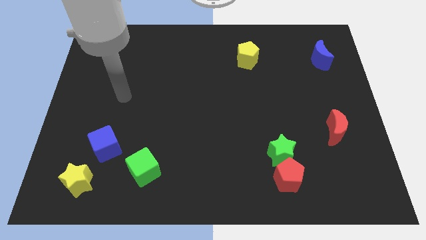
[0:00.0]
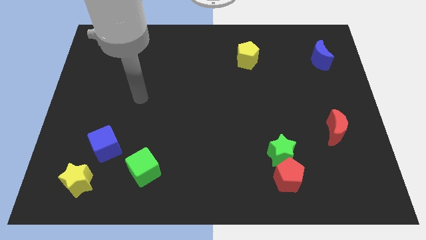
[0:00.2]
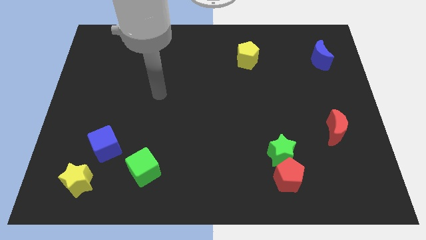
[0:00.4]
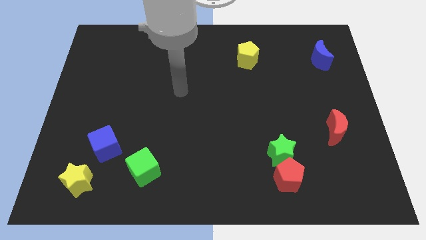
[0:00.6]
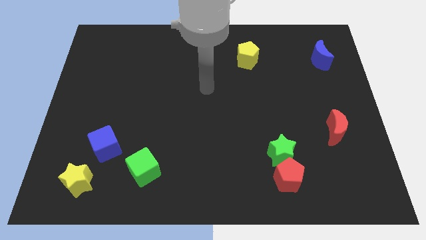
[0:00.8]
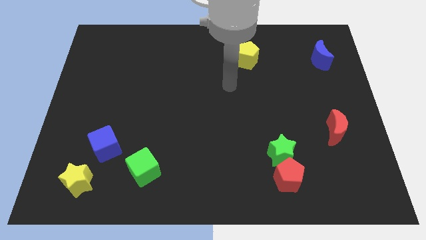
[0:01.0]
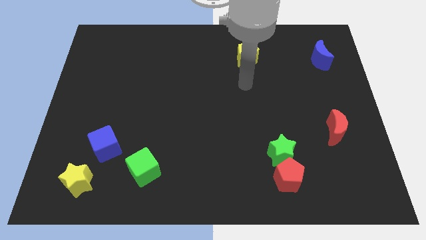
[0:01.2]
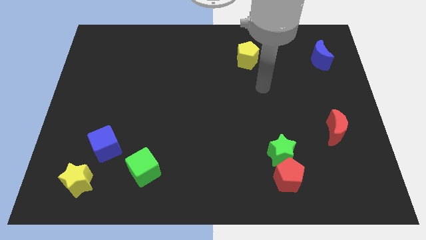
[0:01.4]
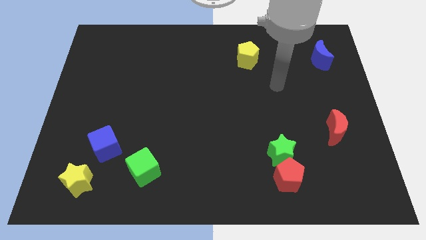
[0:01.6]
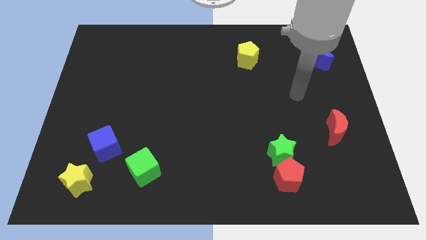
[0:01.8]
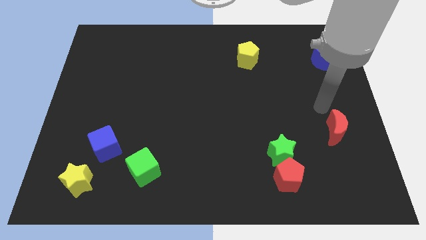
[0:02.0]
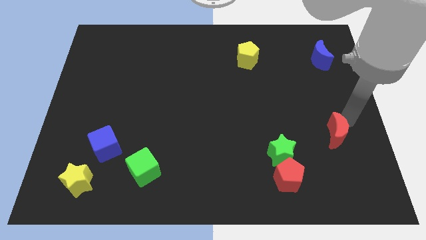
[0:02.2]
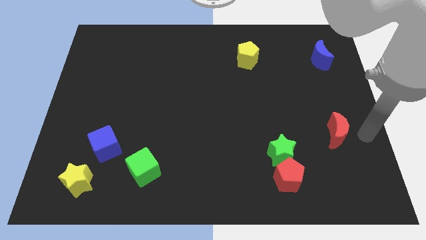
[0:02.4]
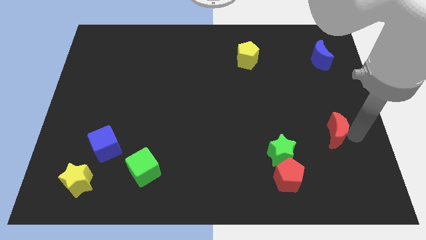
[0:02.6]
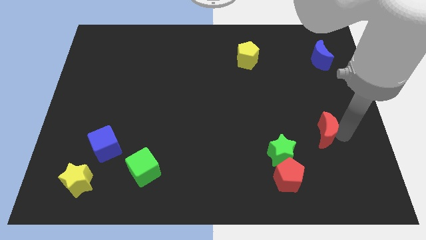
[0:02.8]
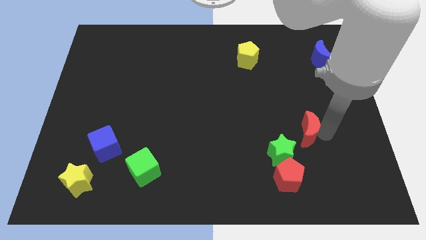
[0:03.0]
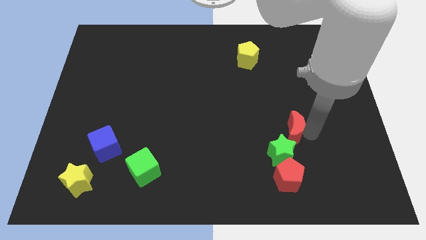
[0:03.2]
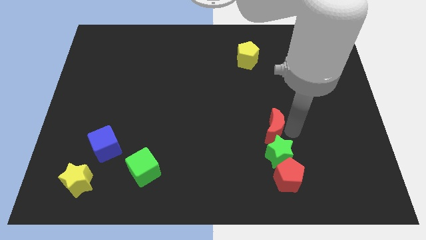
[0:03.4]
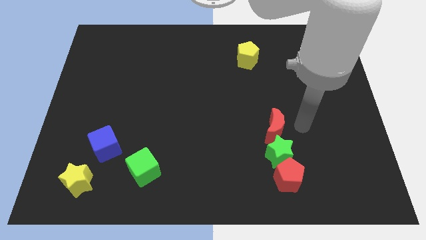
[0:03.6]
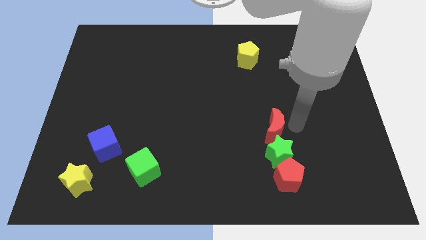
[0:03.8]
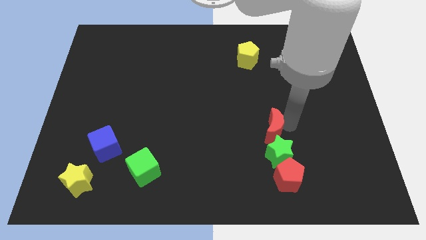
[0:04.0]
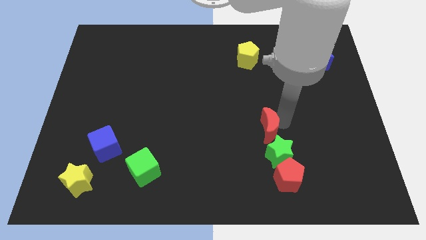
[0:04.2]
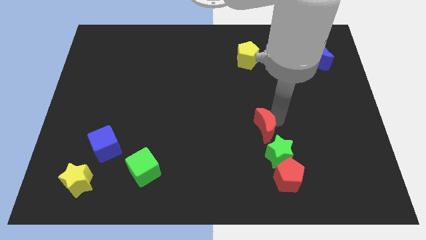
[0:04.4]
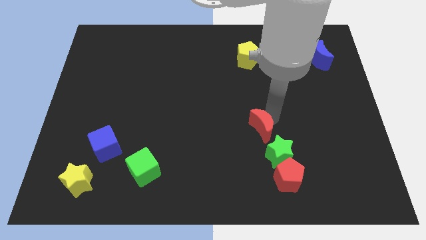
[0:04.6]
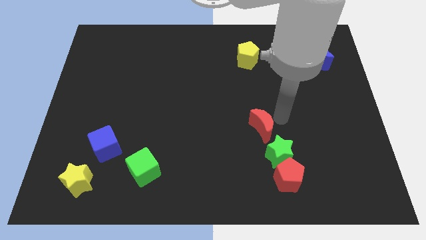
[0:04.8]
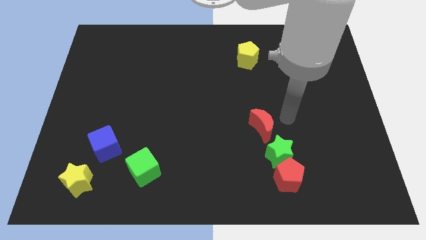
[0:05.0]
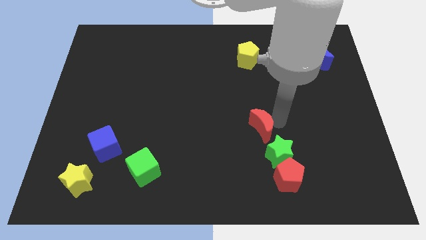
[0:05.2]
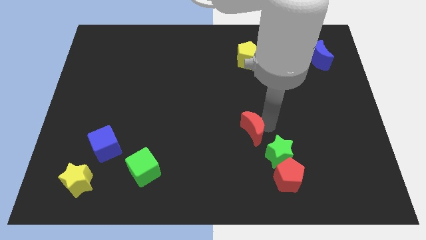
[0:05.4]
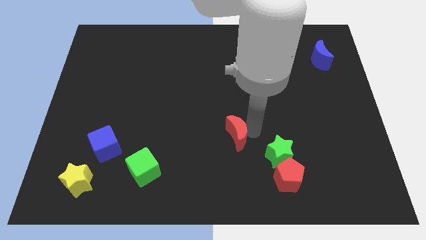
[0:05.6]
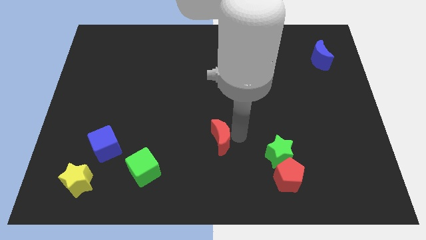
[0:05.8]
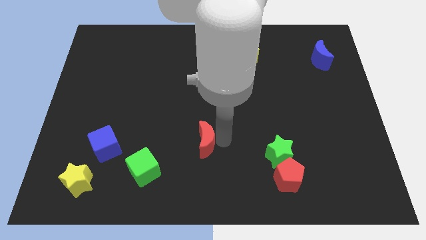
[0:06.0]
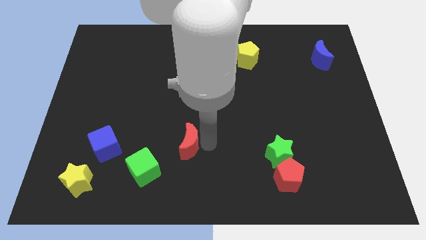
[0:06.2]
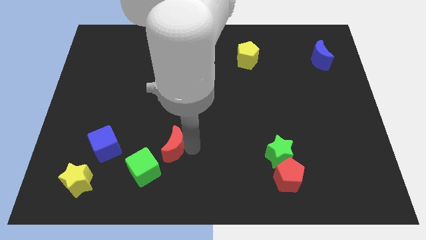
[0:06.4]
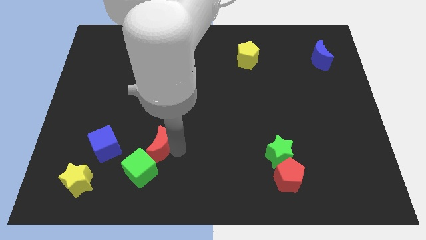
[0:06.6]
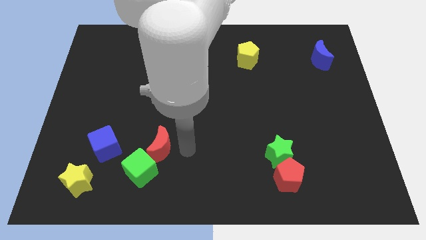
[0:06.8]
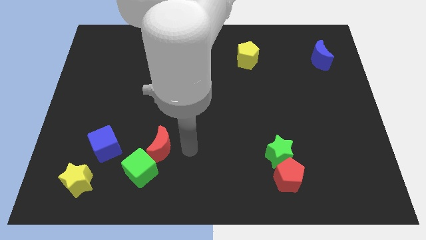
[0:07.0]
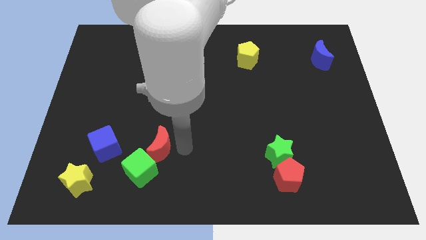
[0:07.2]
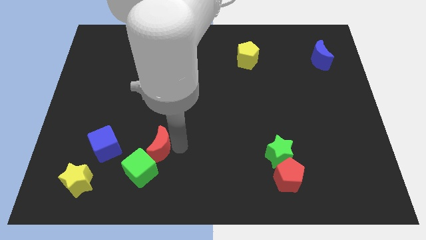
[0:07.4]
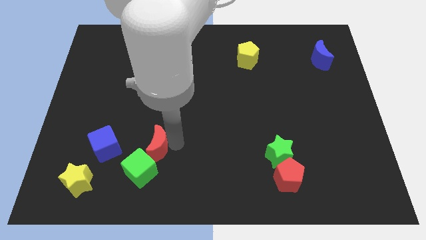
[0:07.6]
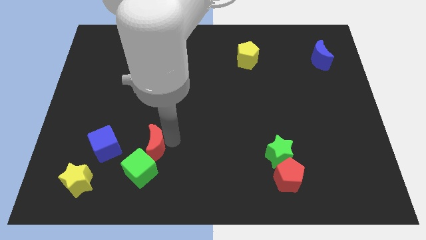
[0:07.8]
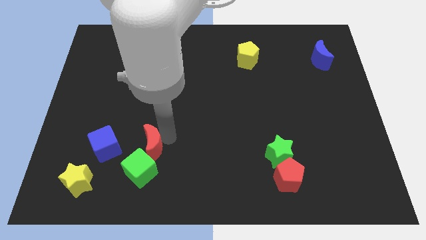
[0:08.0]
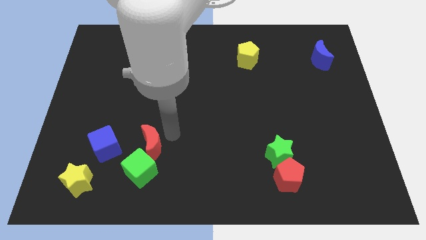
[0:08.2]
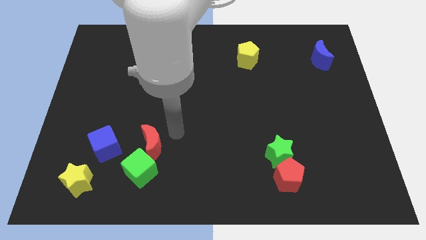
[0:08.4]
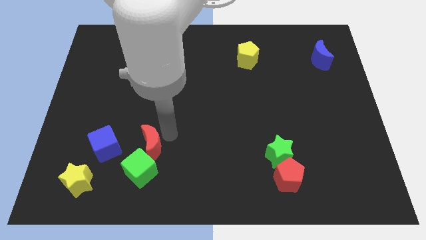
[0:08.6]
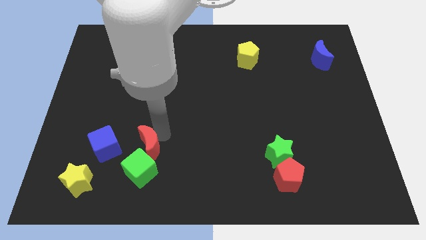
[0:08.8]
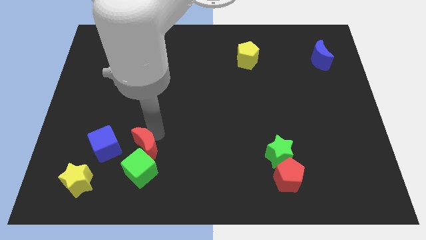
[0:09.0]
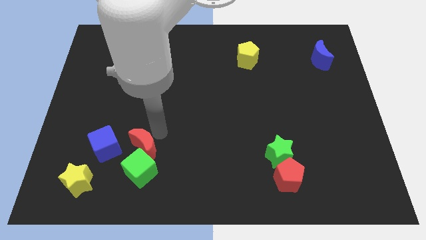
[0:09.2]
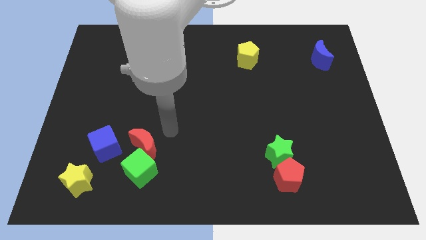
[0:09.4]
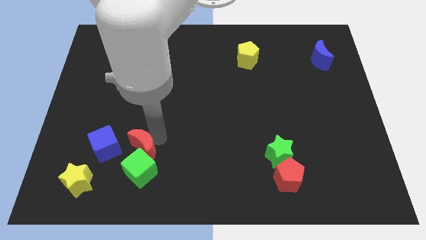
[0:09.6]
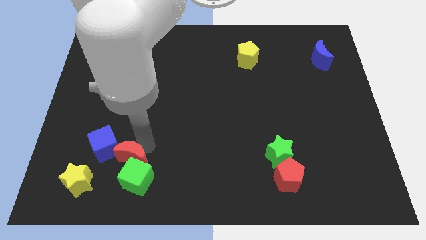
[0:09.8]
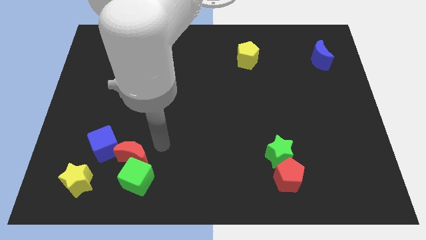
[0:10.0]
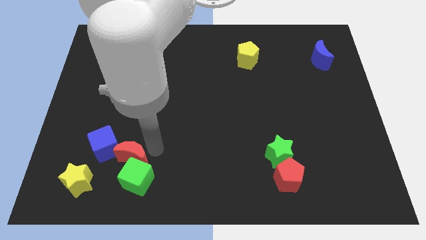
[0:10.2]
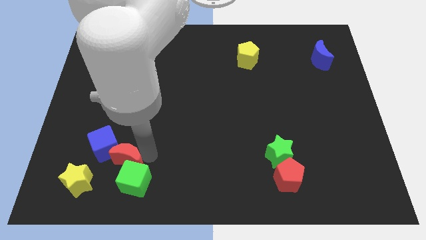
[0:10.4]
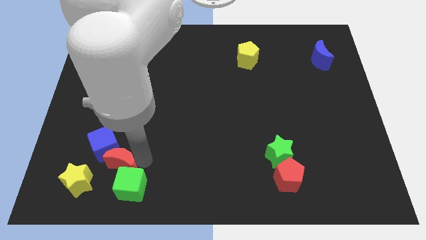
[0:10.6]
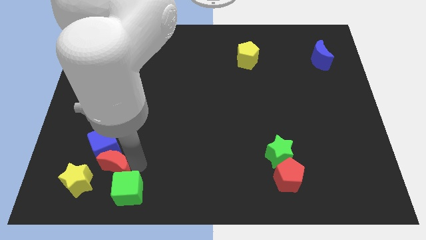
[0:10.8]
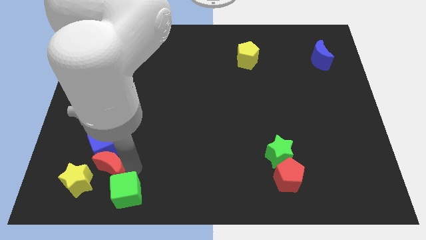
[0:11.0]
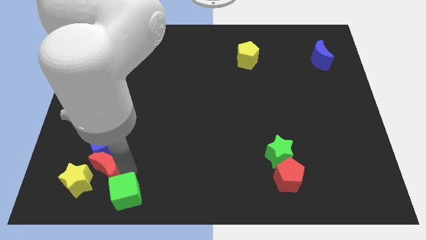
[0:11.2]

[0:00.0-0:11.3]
move the red moon close to the yellow star

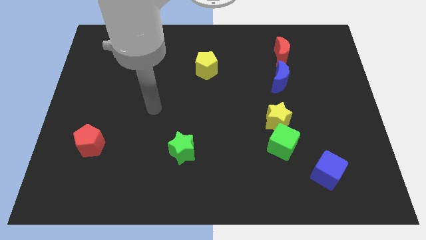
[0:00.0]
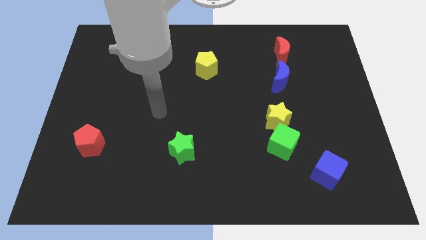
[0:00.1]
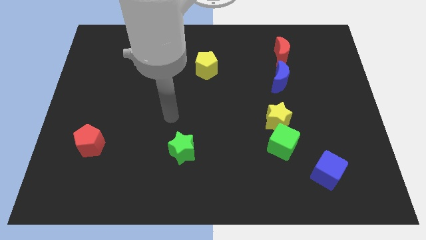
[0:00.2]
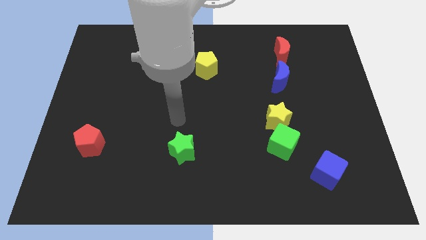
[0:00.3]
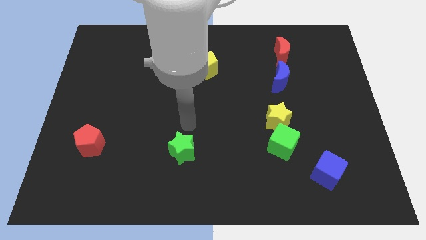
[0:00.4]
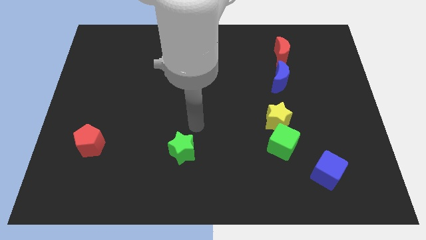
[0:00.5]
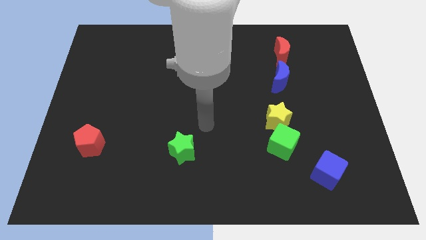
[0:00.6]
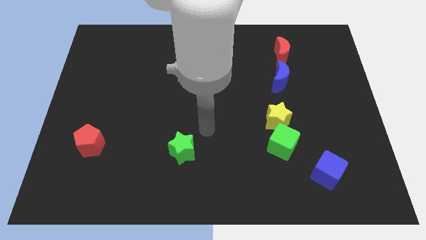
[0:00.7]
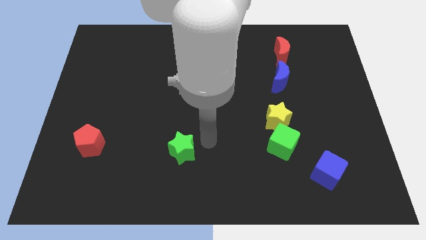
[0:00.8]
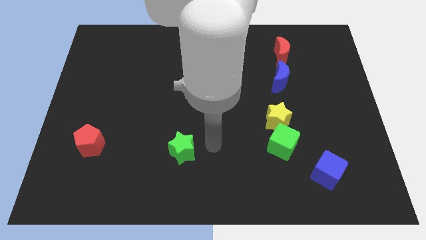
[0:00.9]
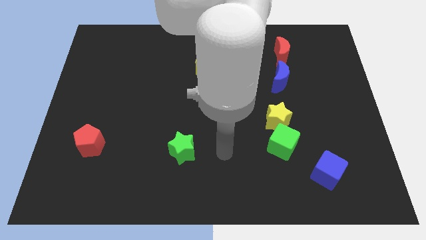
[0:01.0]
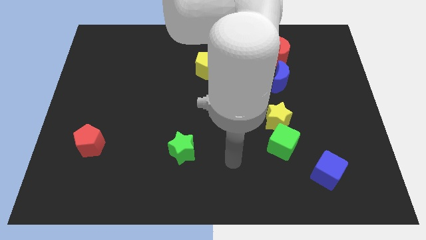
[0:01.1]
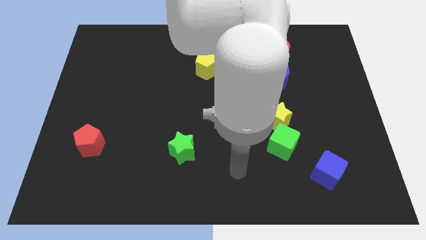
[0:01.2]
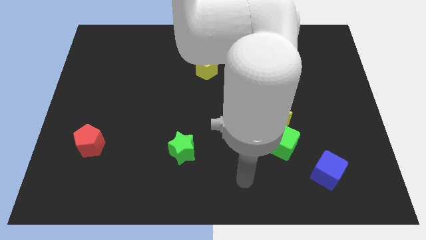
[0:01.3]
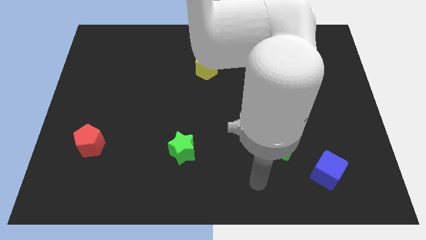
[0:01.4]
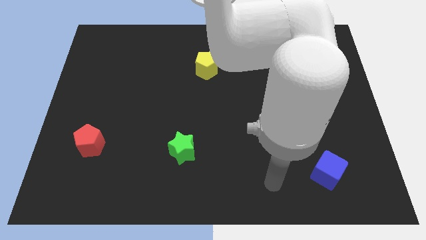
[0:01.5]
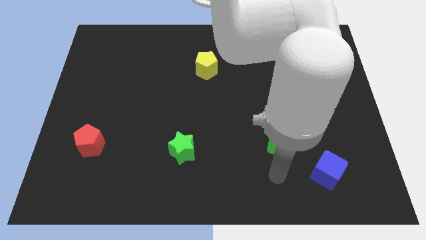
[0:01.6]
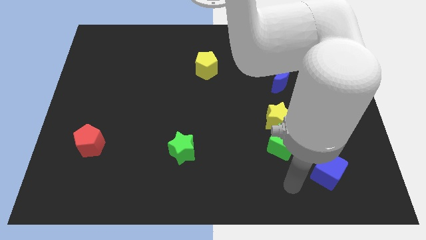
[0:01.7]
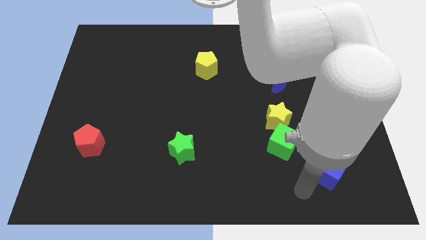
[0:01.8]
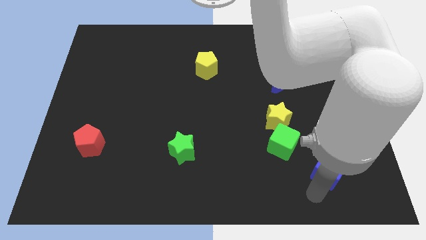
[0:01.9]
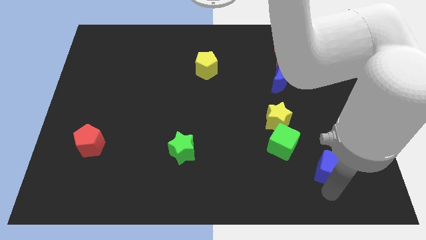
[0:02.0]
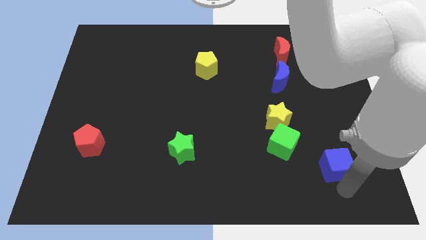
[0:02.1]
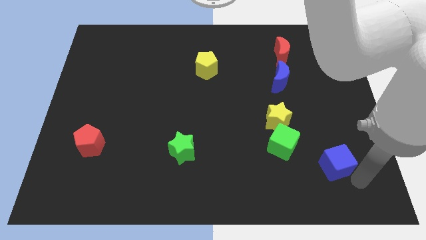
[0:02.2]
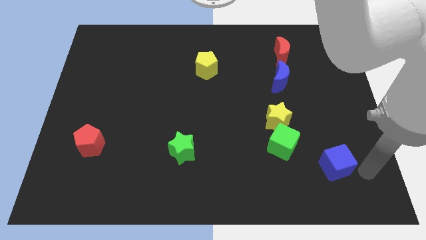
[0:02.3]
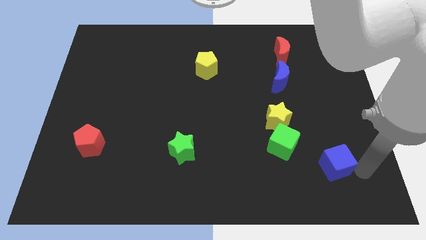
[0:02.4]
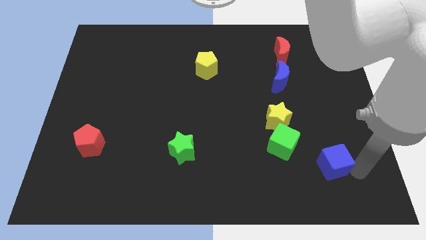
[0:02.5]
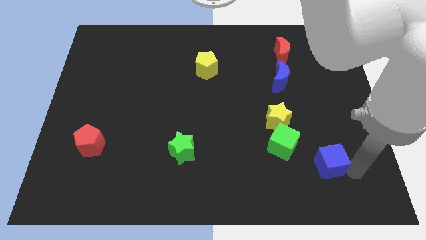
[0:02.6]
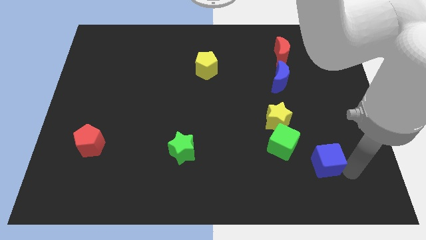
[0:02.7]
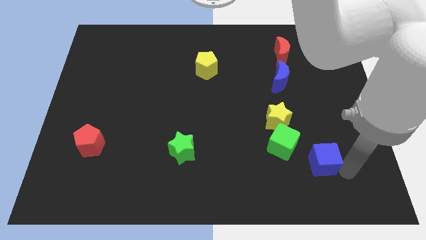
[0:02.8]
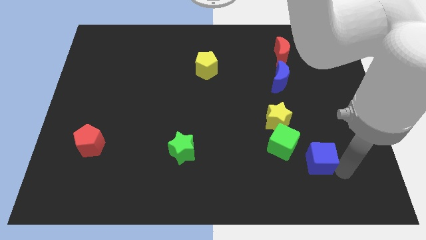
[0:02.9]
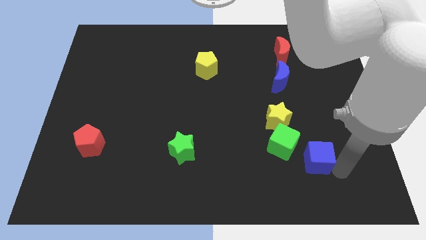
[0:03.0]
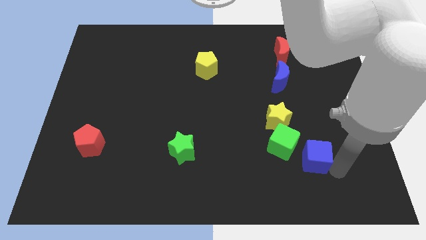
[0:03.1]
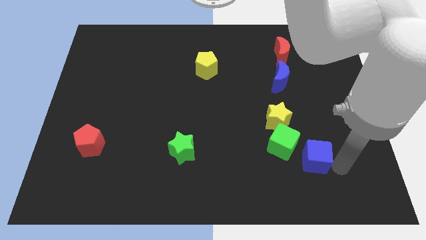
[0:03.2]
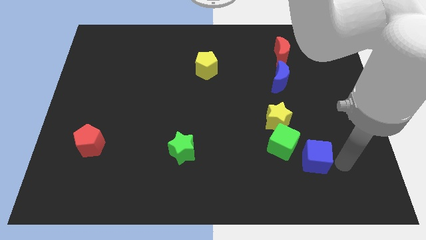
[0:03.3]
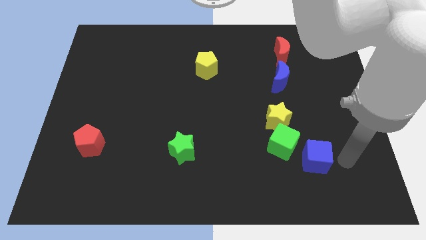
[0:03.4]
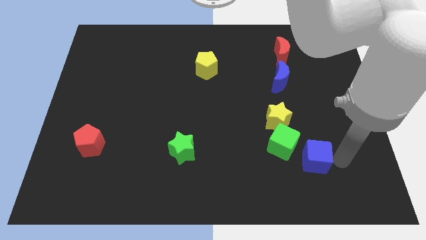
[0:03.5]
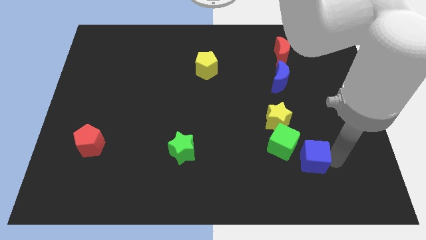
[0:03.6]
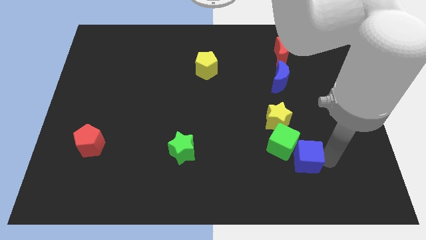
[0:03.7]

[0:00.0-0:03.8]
put the blue cube next to the green cube
